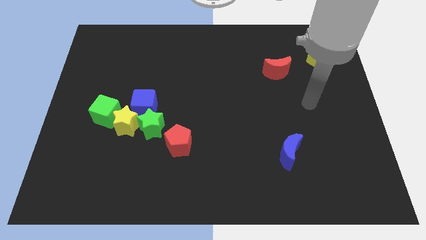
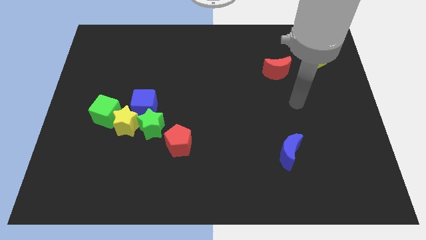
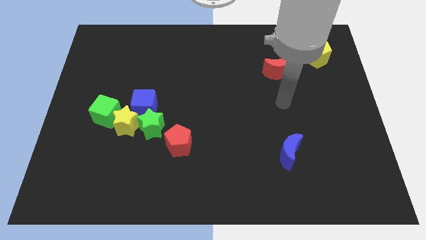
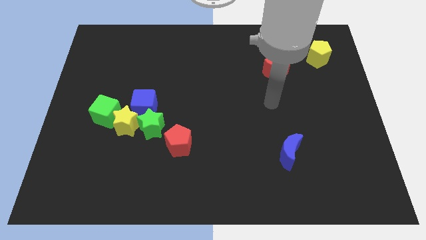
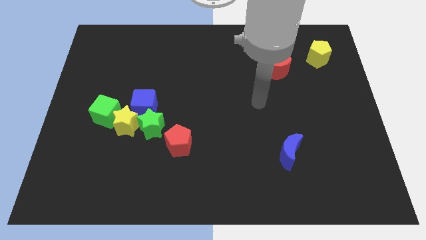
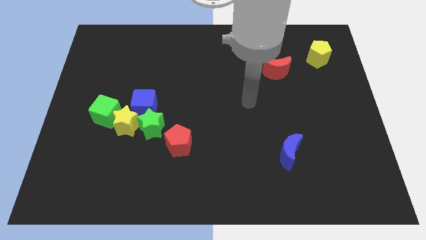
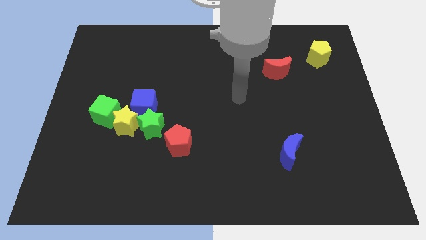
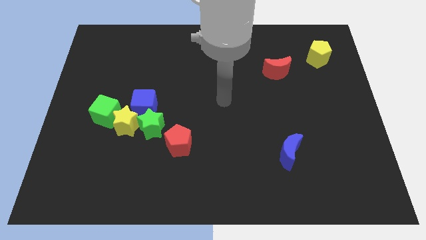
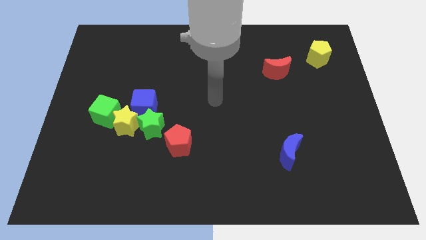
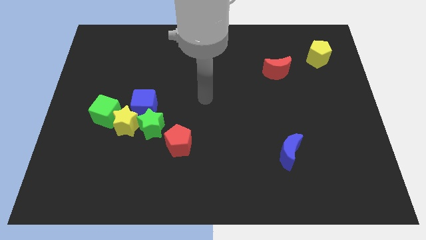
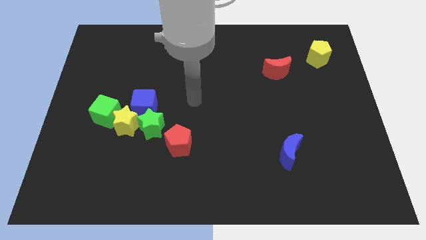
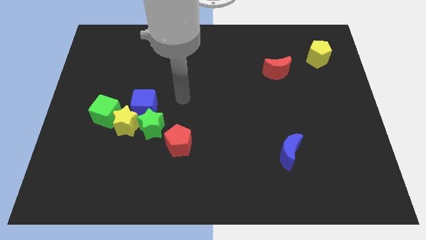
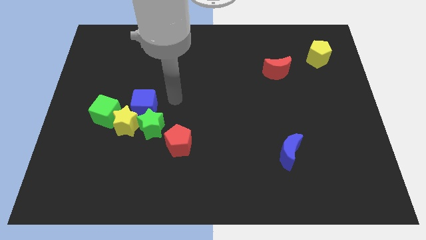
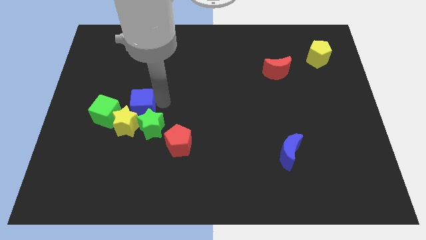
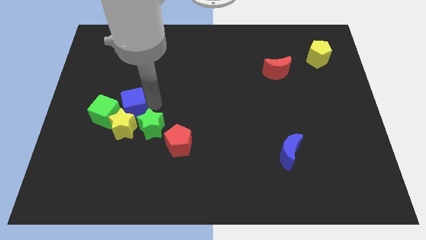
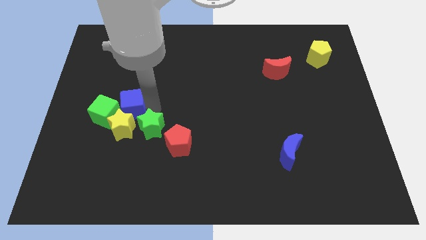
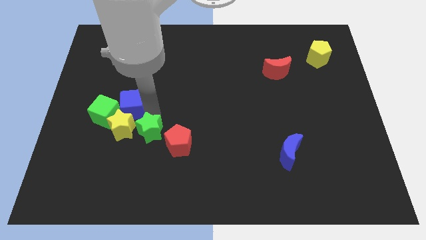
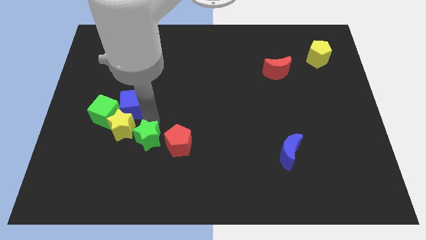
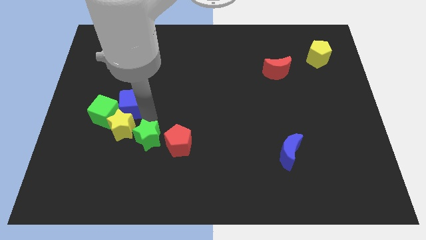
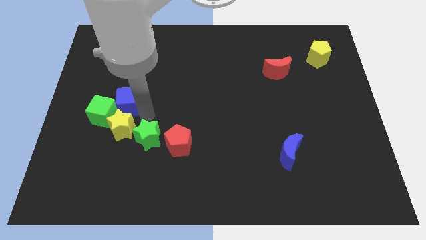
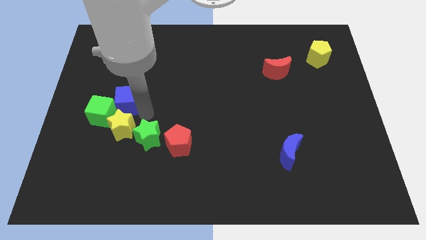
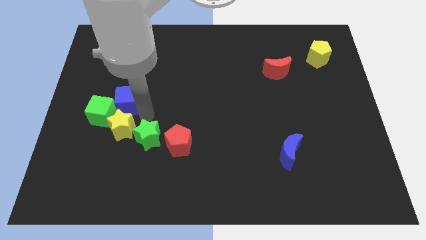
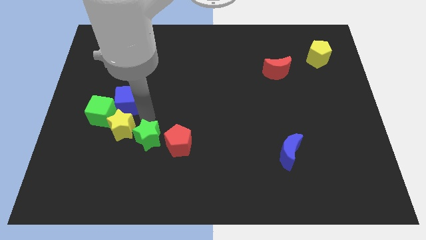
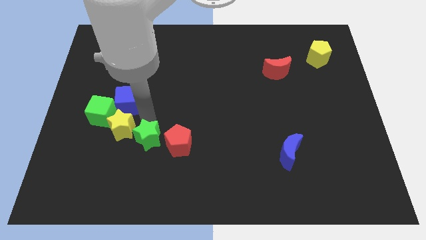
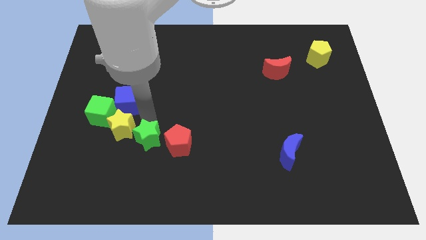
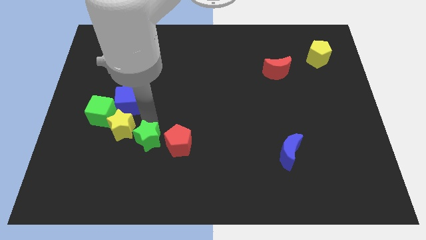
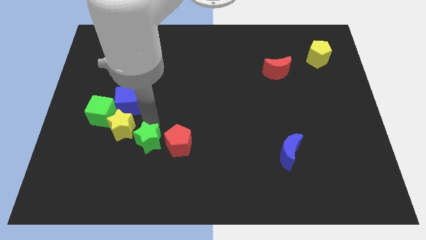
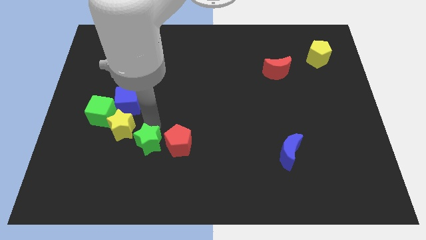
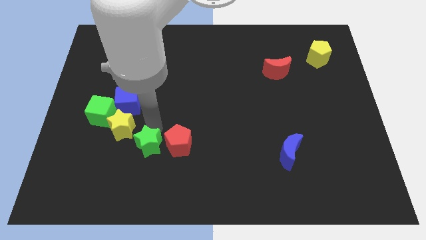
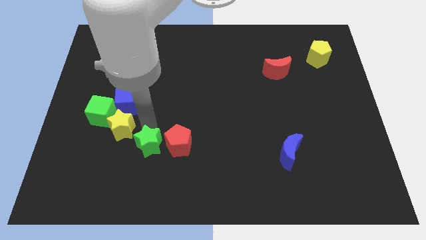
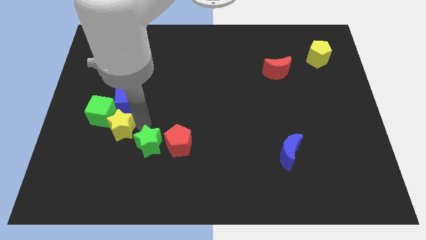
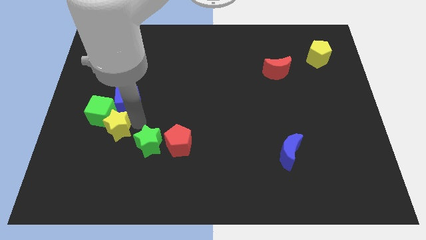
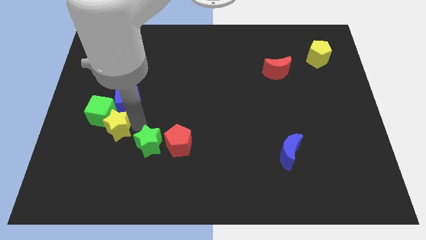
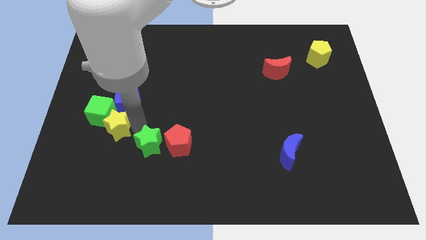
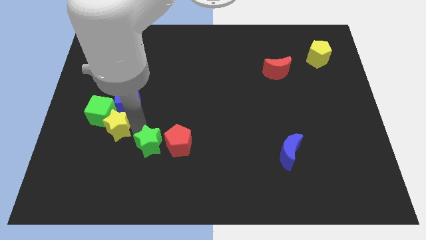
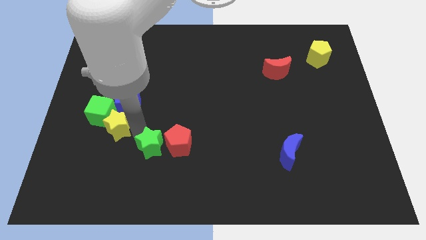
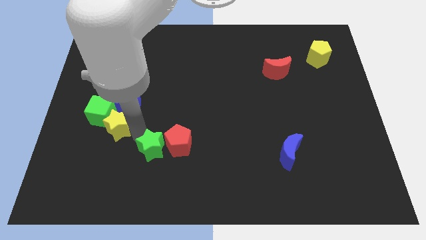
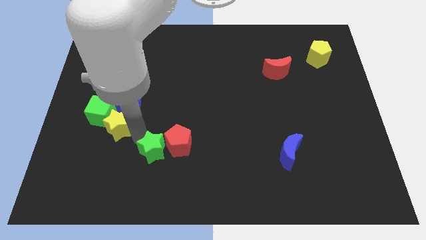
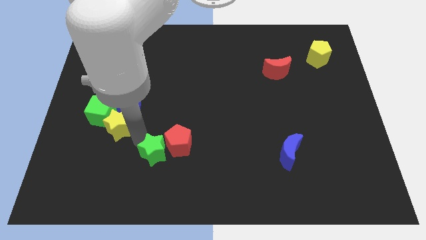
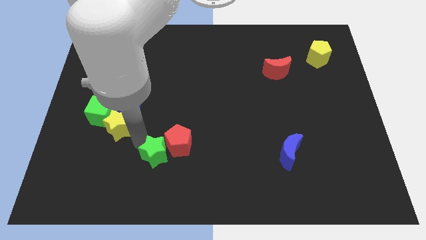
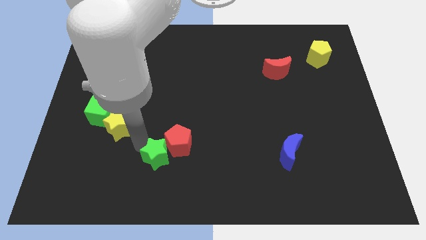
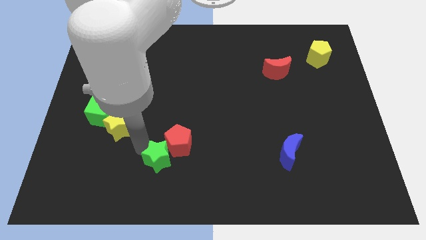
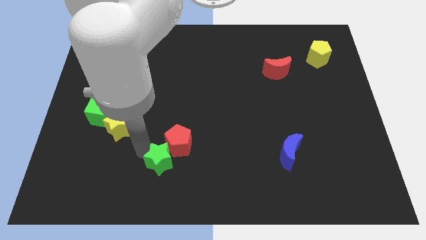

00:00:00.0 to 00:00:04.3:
push the green star a bit downwards and to the right

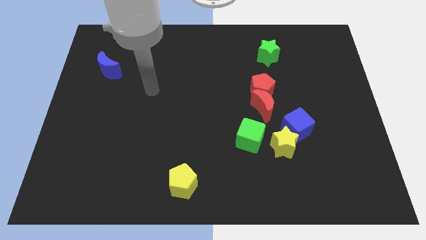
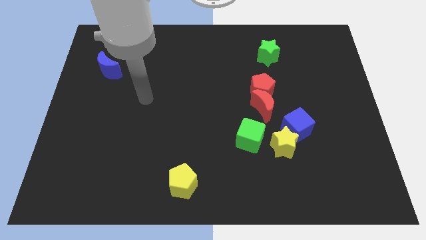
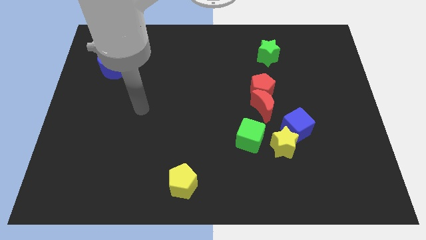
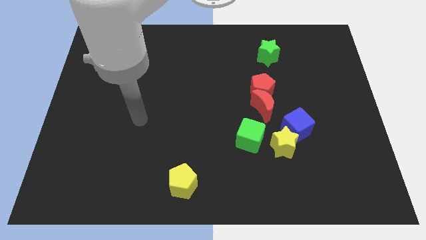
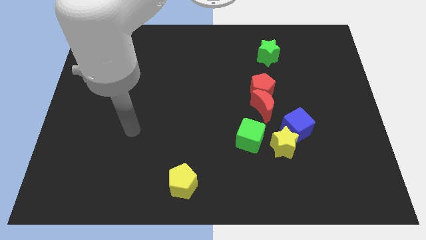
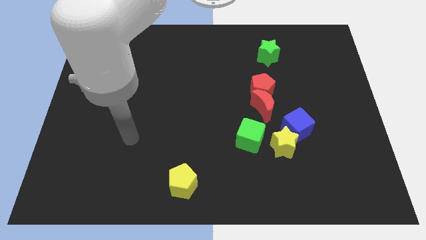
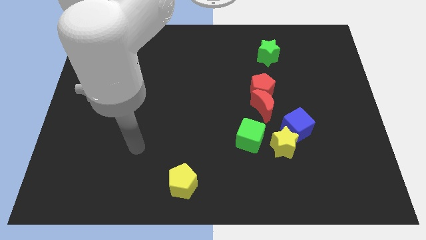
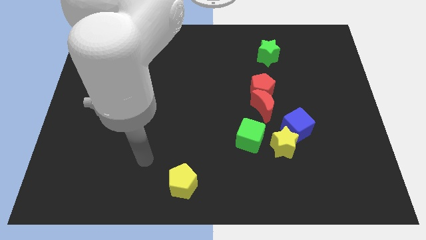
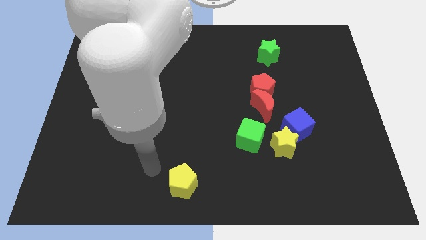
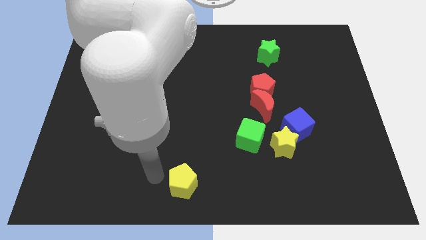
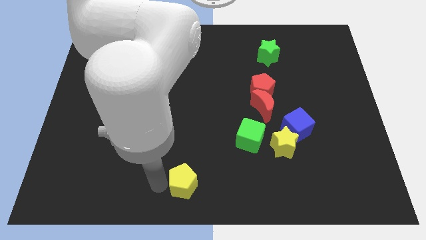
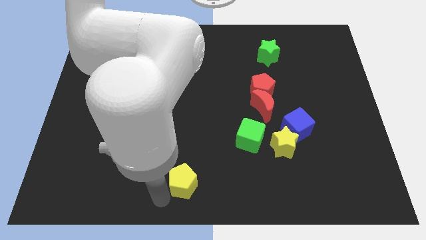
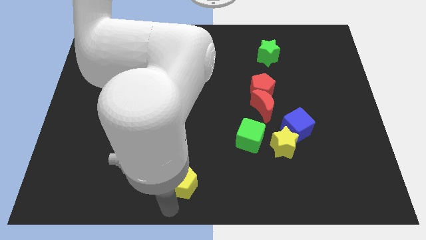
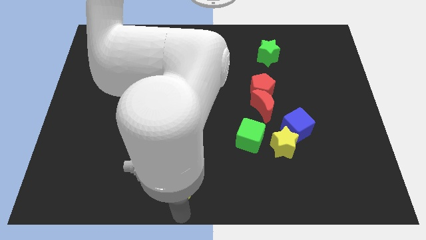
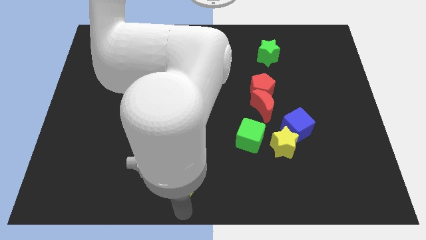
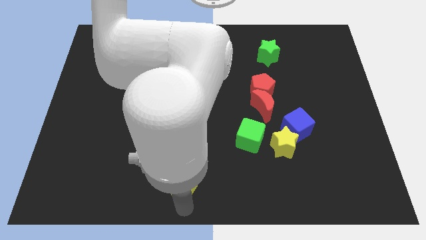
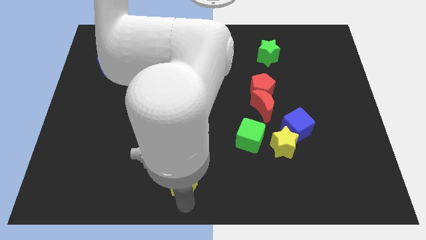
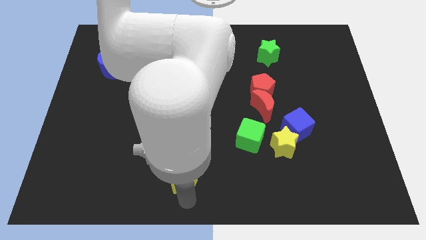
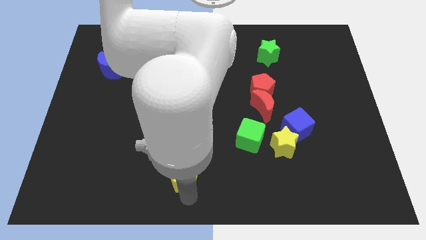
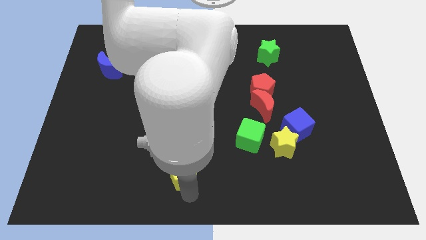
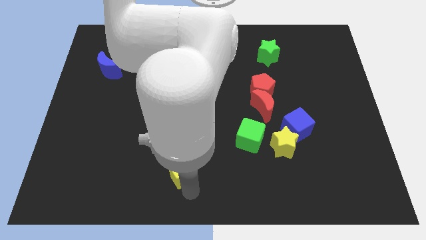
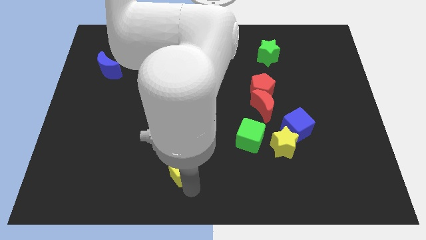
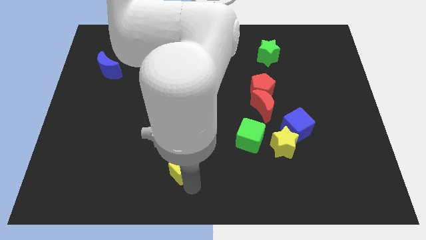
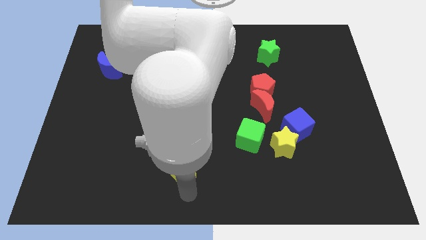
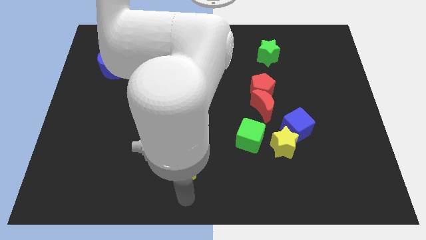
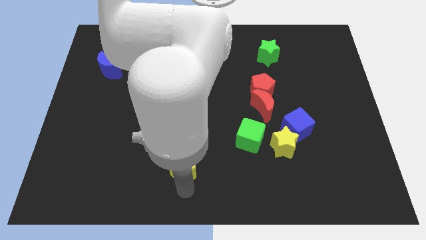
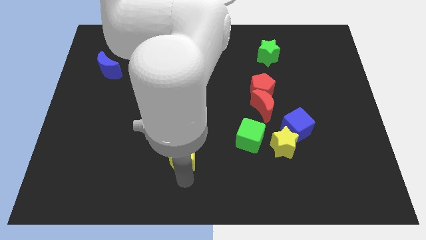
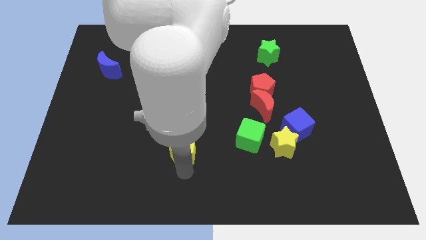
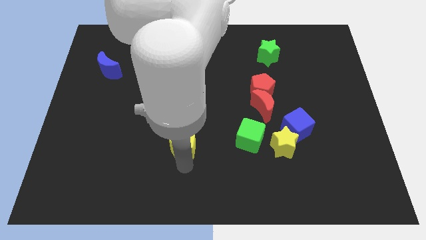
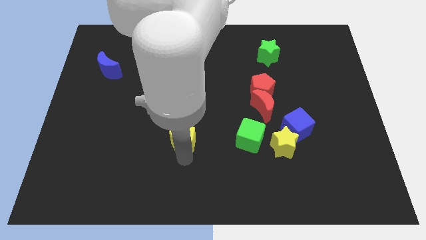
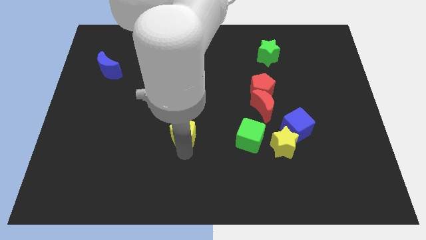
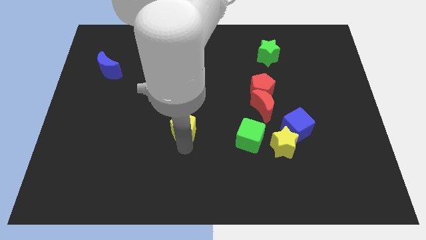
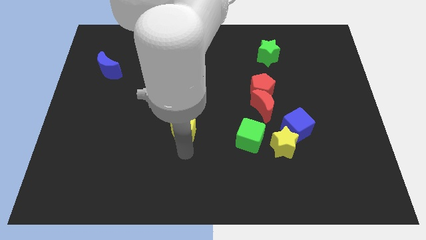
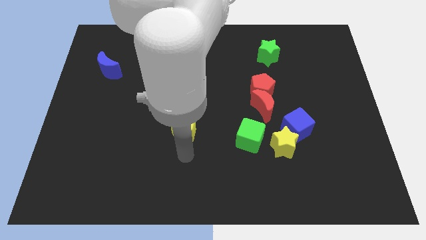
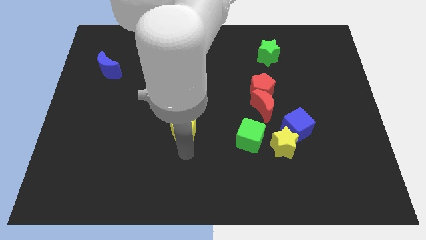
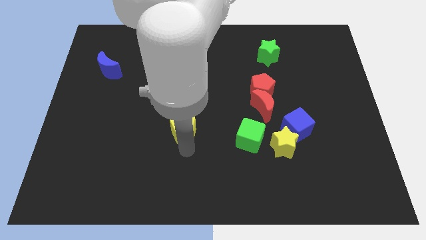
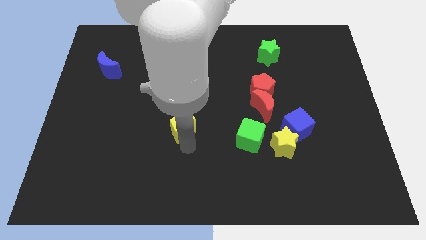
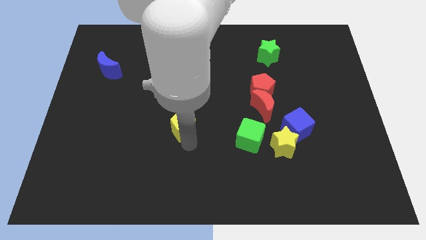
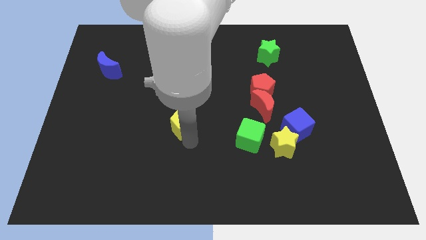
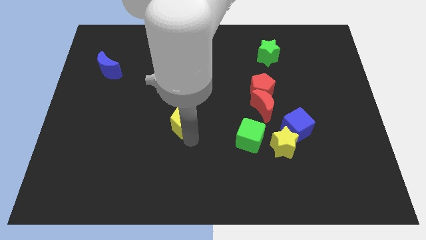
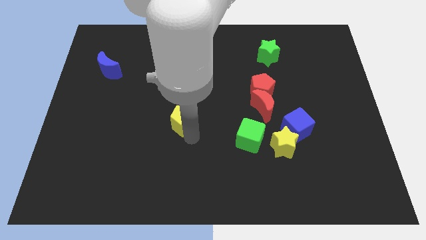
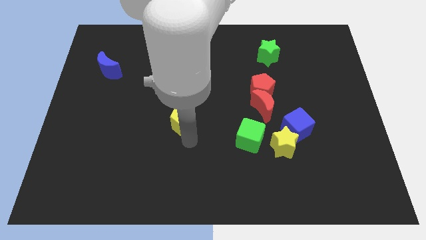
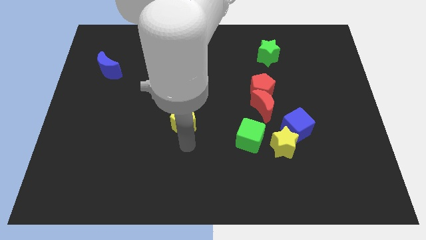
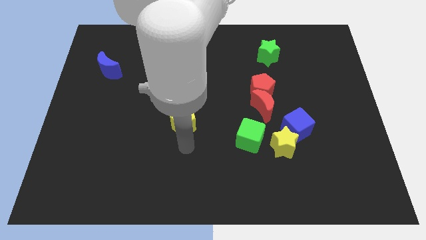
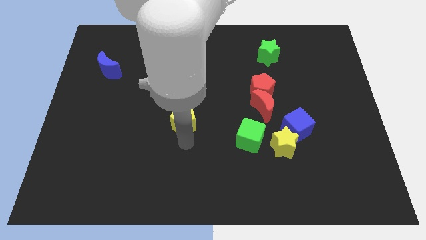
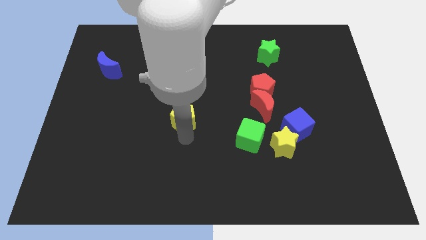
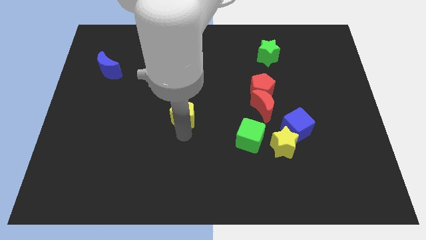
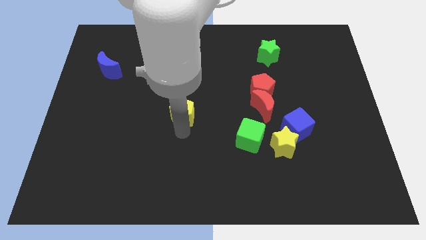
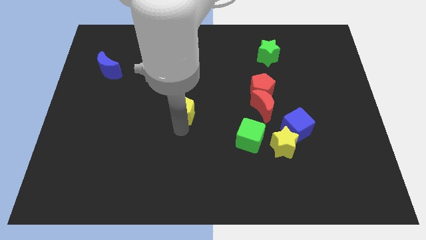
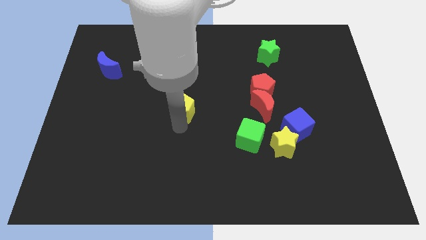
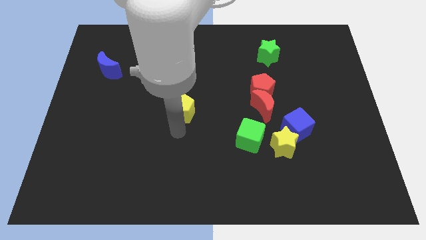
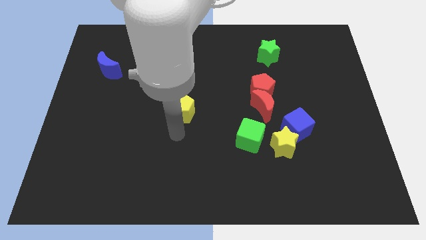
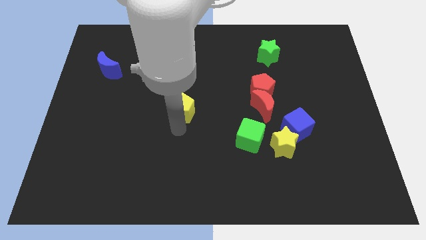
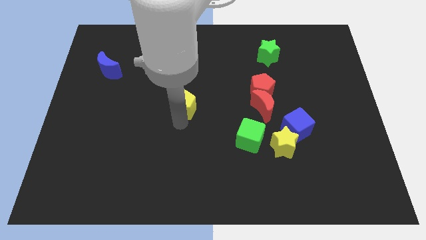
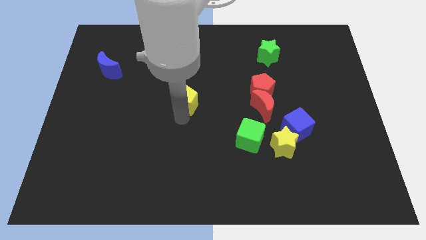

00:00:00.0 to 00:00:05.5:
push the yellow pentagon upwards
